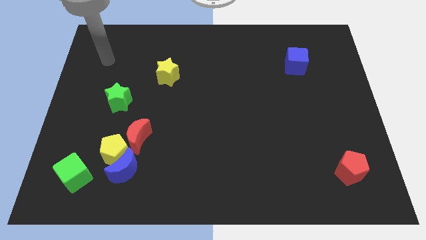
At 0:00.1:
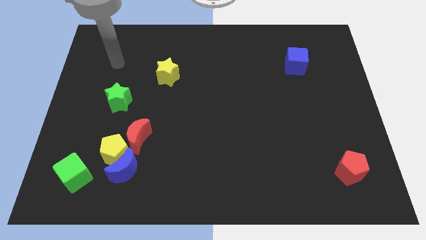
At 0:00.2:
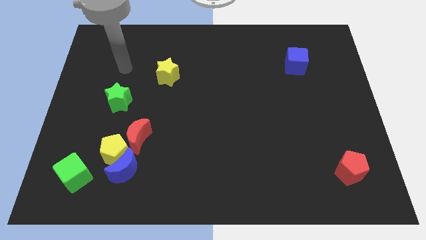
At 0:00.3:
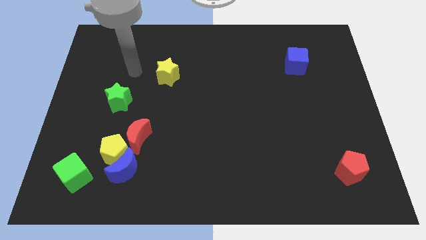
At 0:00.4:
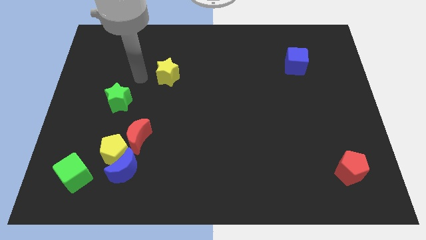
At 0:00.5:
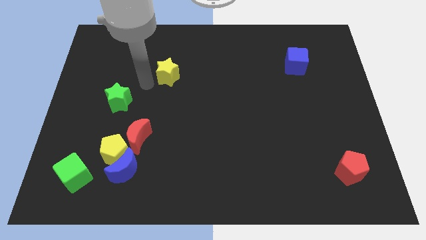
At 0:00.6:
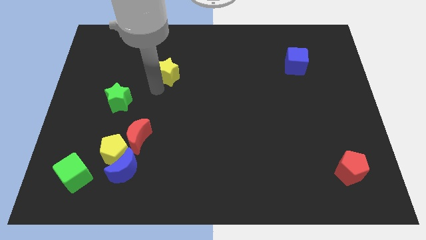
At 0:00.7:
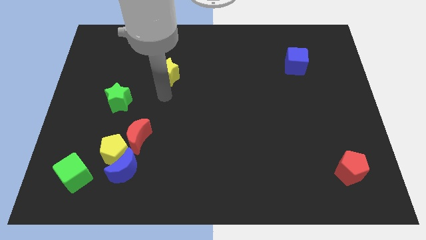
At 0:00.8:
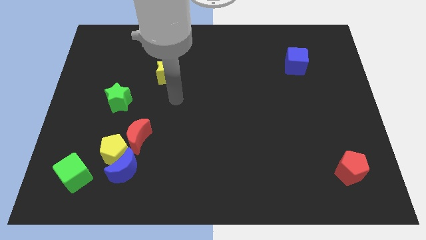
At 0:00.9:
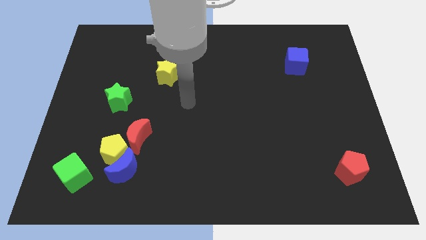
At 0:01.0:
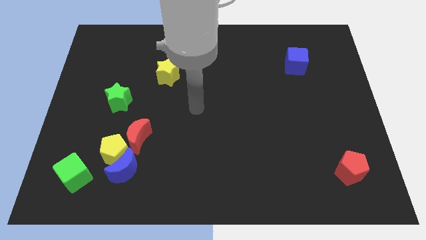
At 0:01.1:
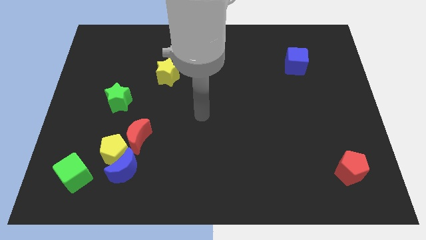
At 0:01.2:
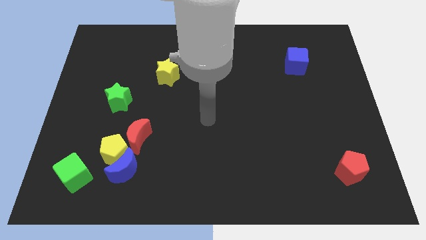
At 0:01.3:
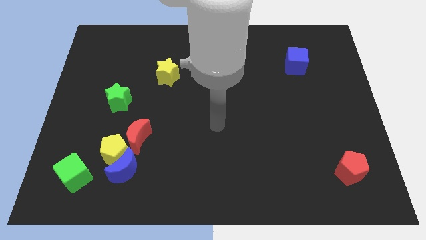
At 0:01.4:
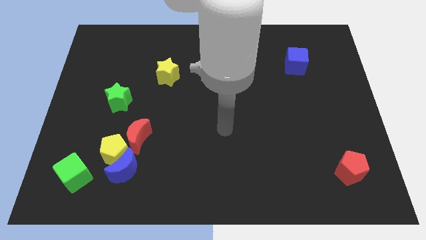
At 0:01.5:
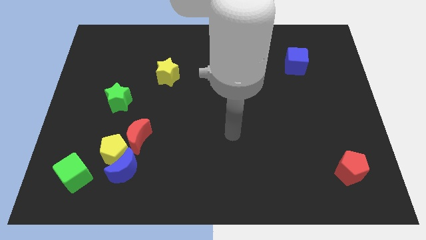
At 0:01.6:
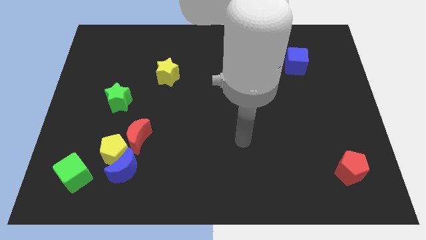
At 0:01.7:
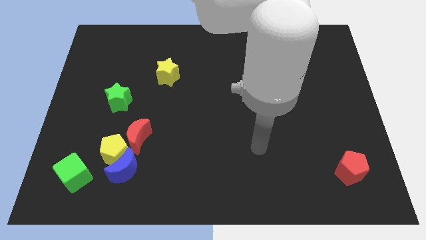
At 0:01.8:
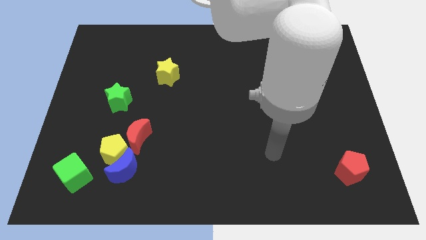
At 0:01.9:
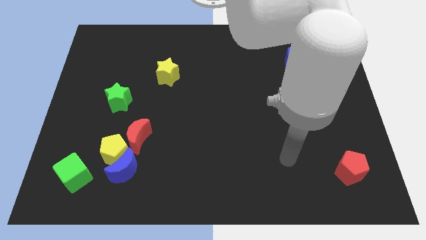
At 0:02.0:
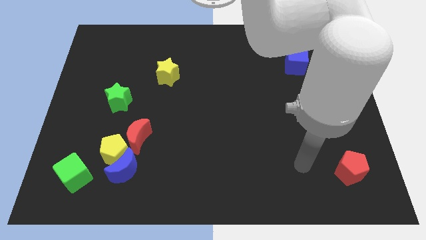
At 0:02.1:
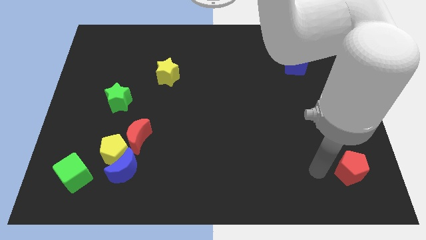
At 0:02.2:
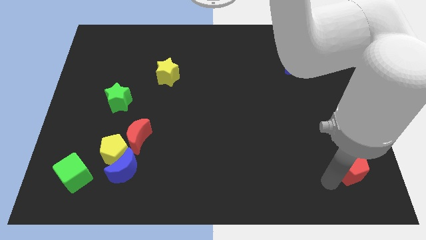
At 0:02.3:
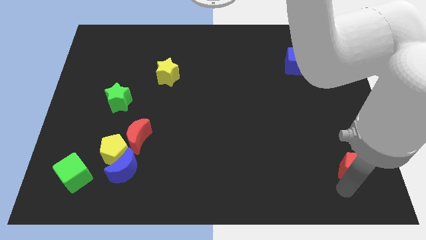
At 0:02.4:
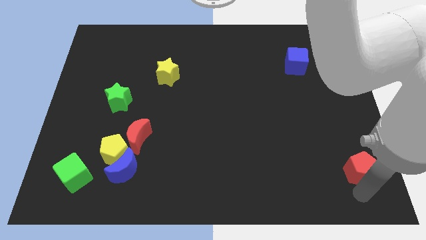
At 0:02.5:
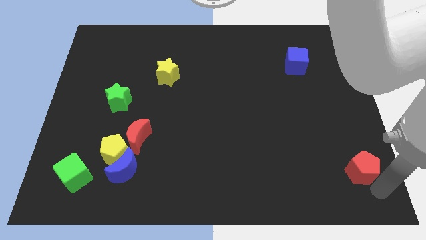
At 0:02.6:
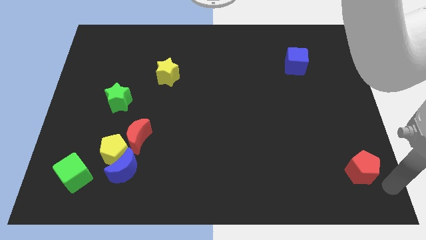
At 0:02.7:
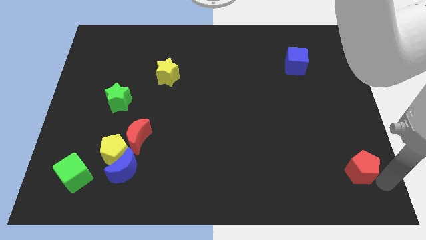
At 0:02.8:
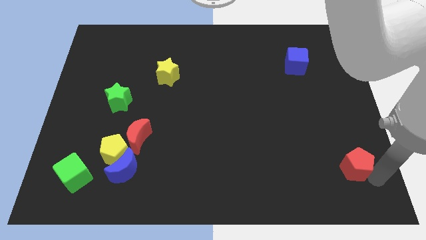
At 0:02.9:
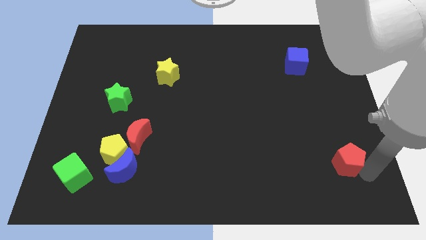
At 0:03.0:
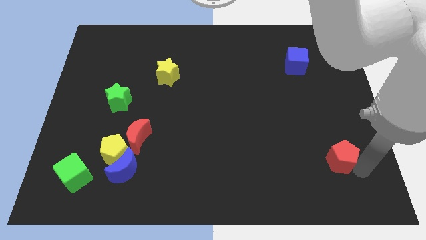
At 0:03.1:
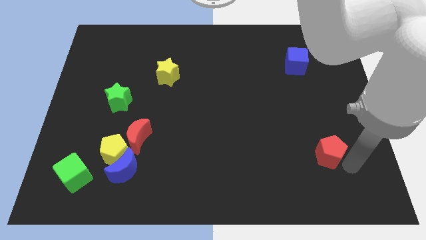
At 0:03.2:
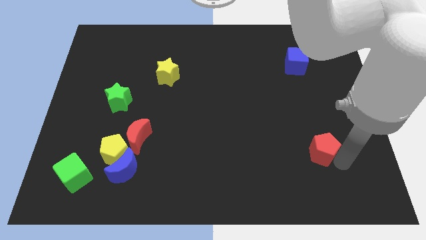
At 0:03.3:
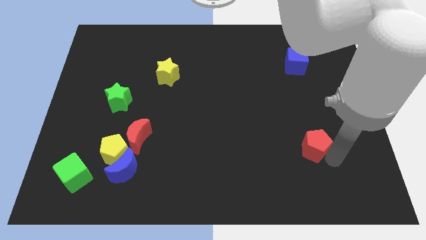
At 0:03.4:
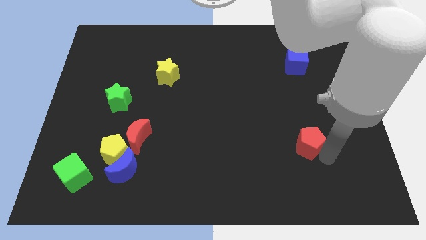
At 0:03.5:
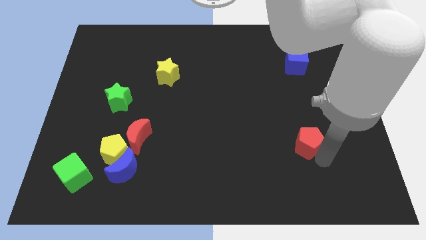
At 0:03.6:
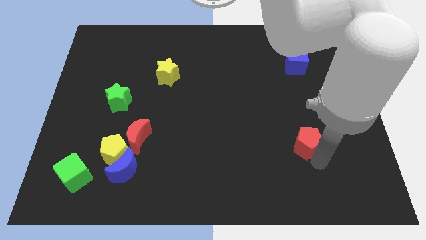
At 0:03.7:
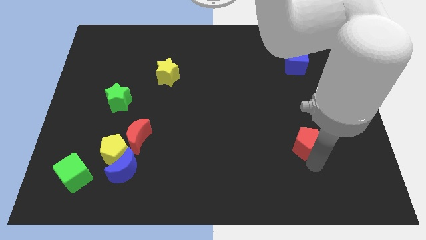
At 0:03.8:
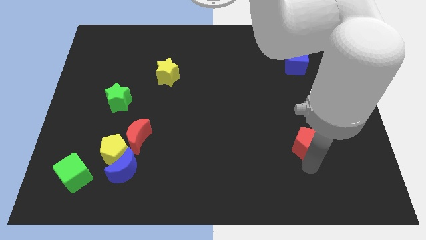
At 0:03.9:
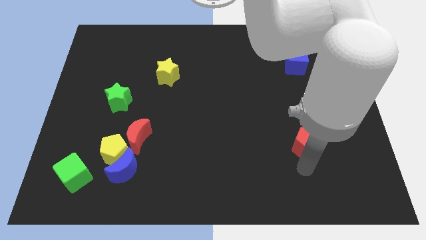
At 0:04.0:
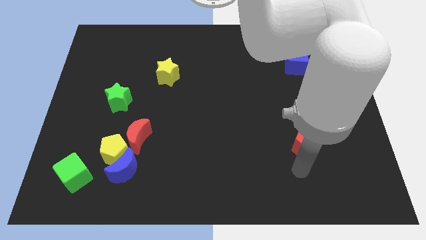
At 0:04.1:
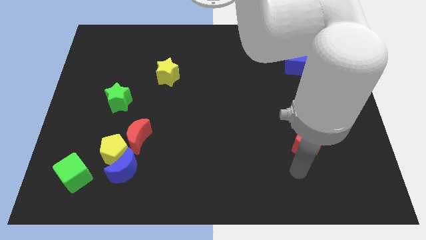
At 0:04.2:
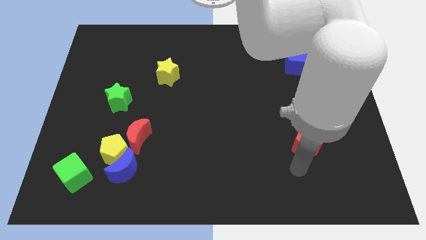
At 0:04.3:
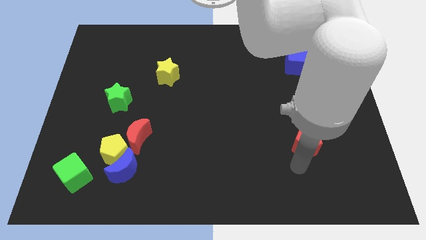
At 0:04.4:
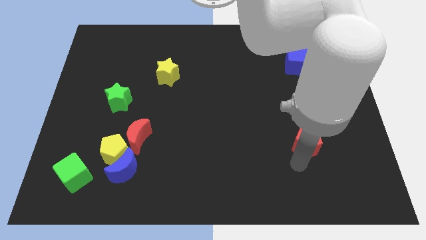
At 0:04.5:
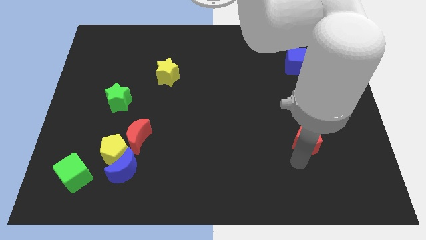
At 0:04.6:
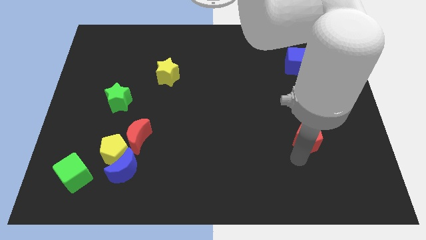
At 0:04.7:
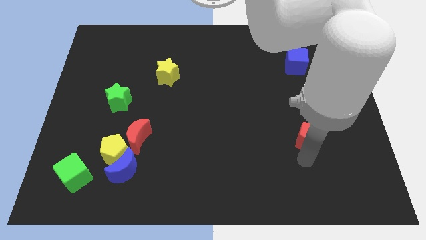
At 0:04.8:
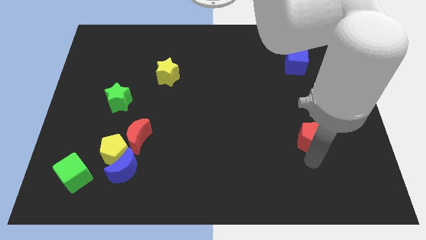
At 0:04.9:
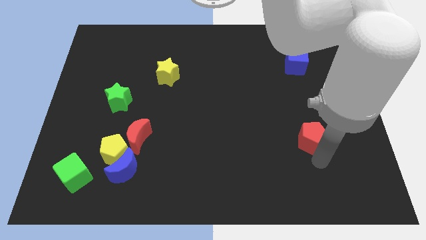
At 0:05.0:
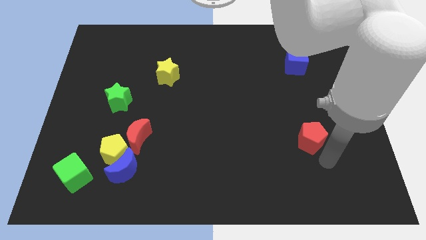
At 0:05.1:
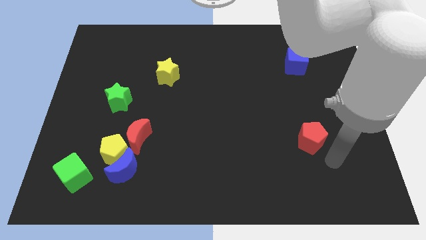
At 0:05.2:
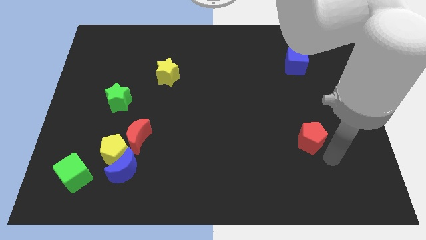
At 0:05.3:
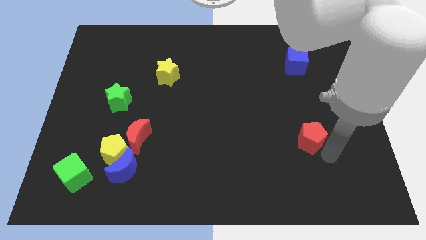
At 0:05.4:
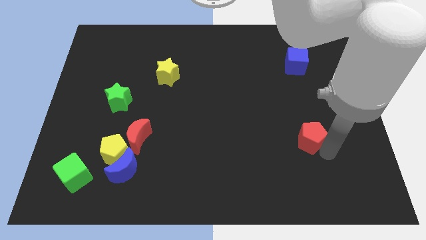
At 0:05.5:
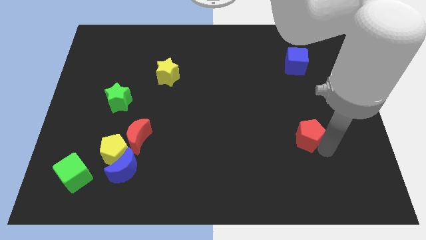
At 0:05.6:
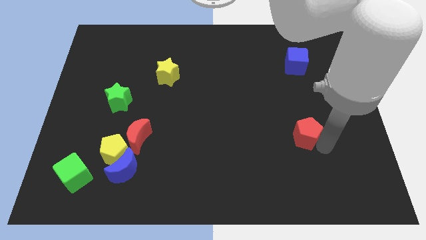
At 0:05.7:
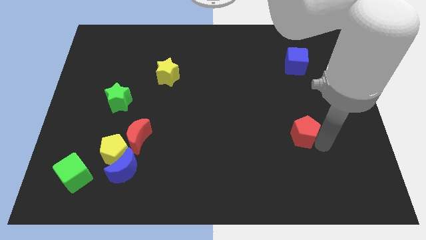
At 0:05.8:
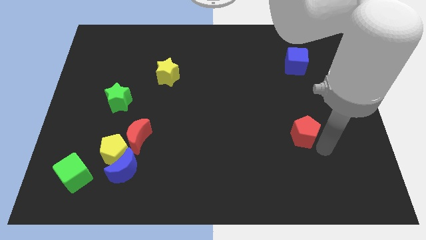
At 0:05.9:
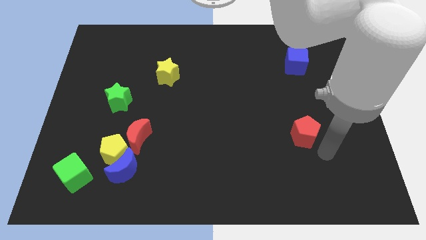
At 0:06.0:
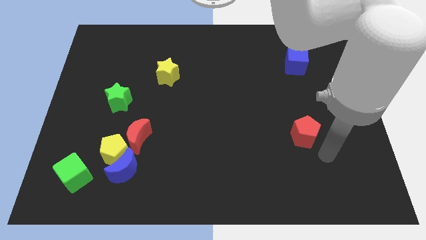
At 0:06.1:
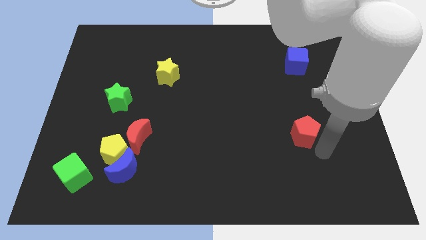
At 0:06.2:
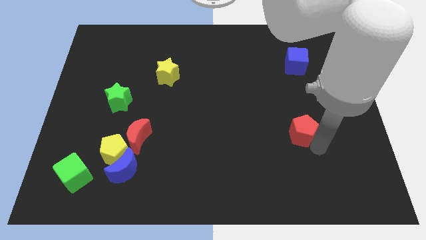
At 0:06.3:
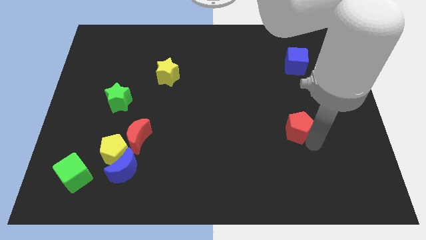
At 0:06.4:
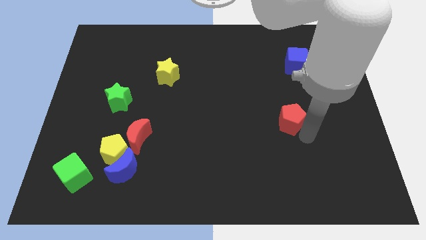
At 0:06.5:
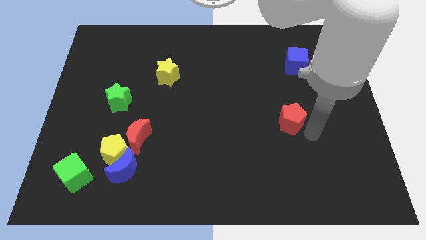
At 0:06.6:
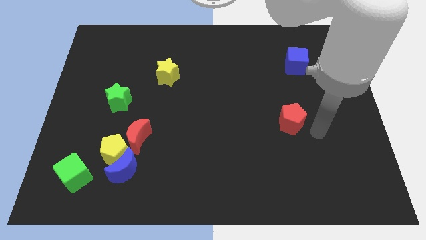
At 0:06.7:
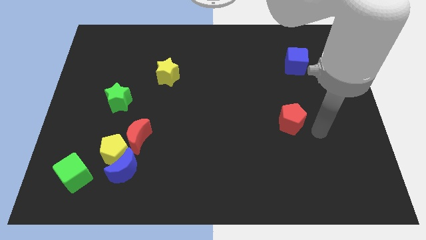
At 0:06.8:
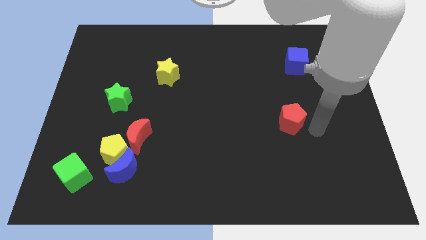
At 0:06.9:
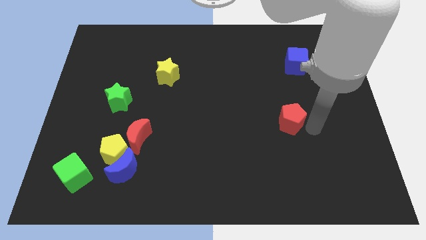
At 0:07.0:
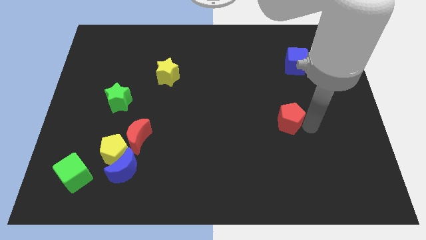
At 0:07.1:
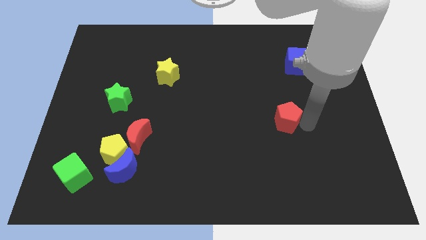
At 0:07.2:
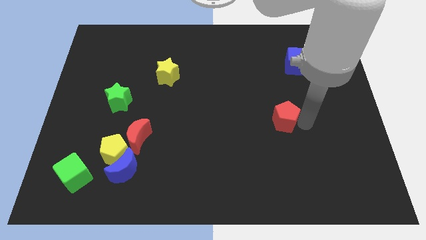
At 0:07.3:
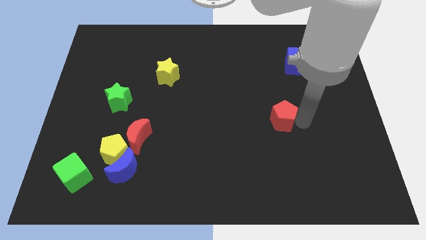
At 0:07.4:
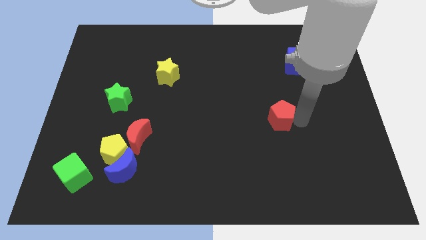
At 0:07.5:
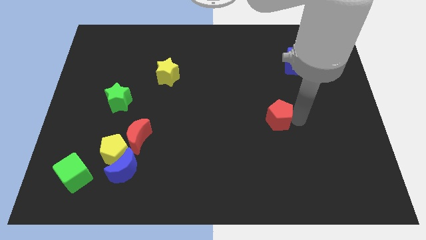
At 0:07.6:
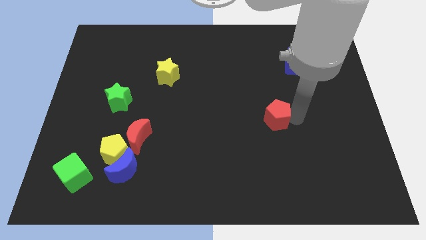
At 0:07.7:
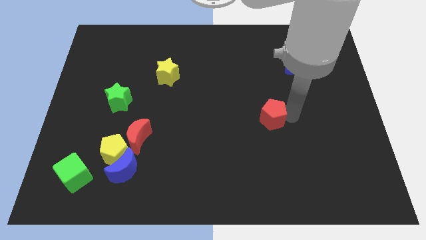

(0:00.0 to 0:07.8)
push the red pentagon upwards and to the left diagonally
